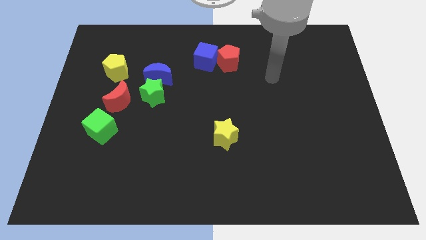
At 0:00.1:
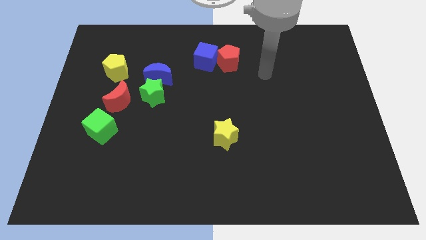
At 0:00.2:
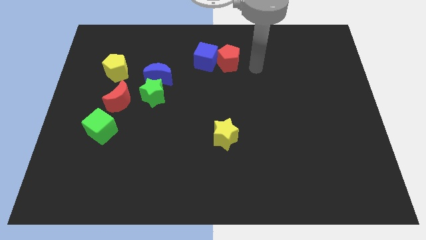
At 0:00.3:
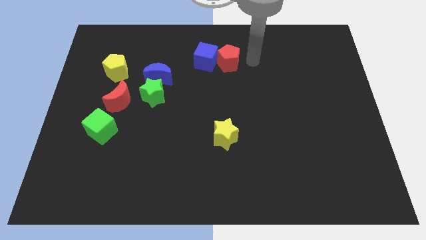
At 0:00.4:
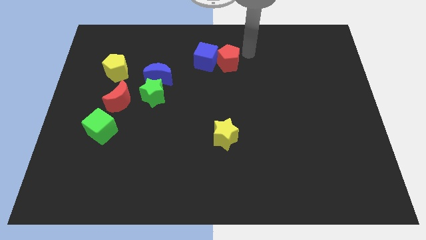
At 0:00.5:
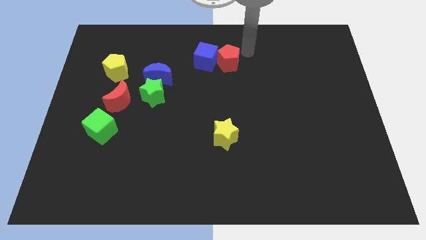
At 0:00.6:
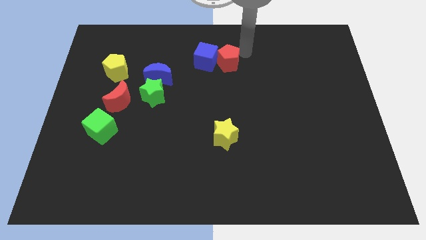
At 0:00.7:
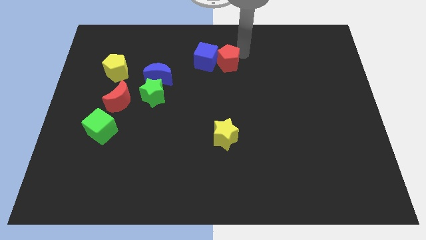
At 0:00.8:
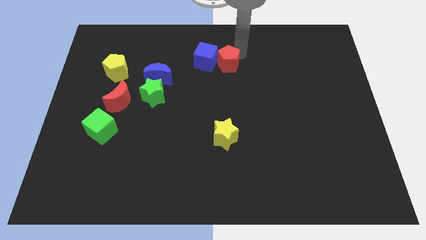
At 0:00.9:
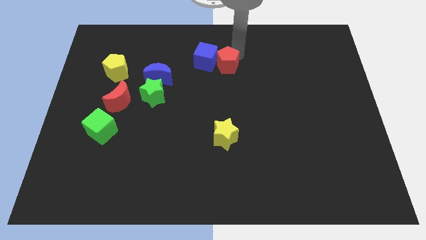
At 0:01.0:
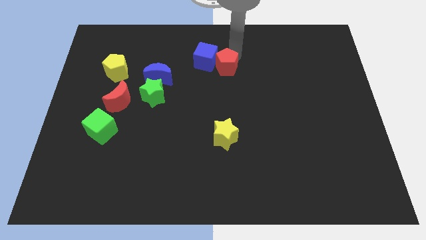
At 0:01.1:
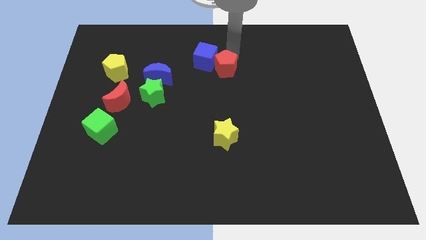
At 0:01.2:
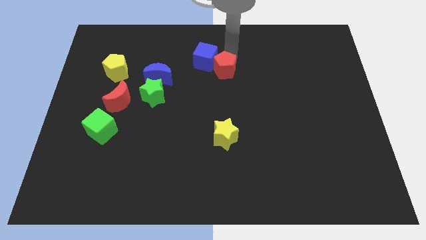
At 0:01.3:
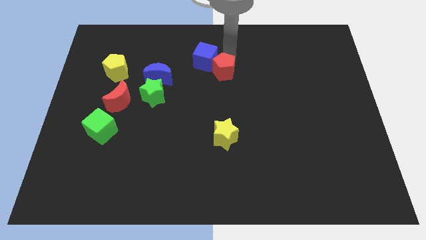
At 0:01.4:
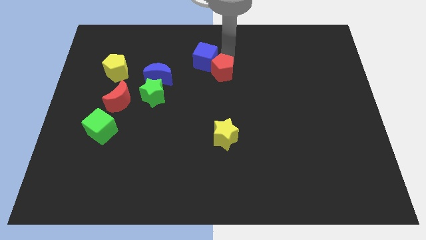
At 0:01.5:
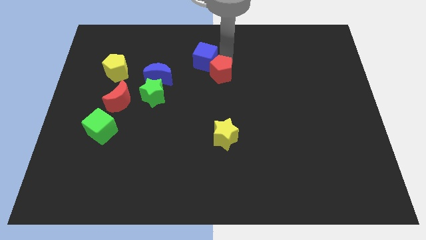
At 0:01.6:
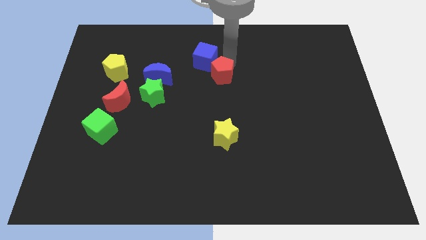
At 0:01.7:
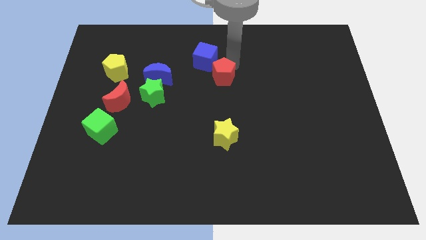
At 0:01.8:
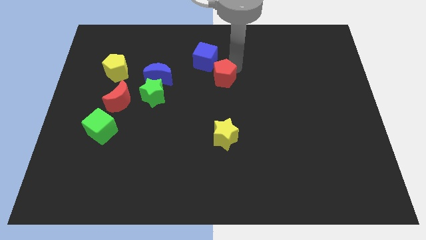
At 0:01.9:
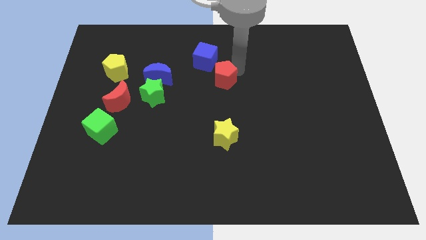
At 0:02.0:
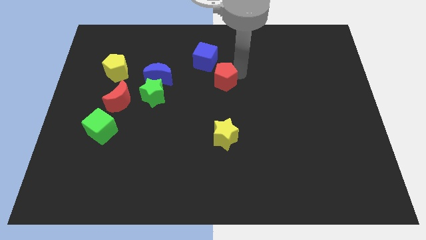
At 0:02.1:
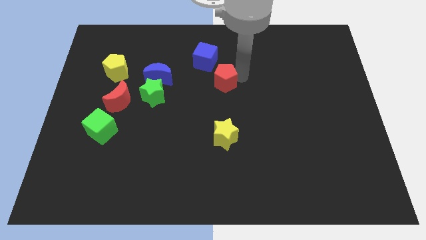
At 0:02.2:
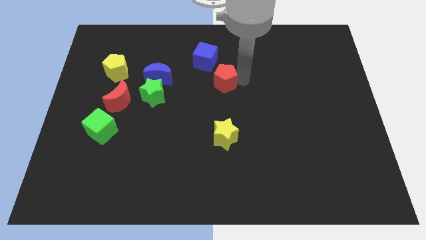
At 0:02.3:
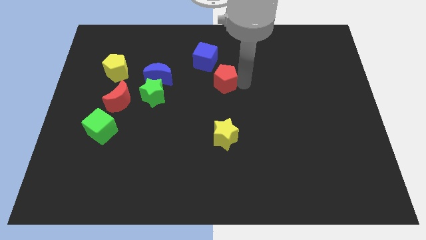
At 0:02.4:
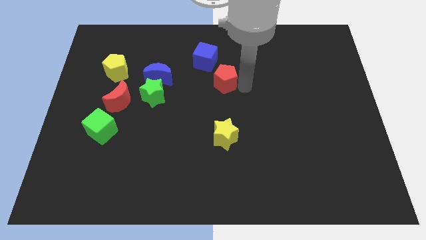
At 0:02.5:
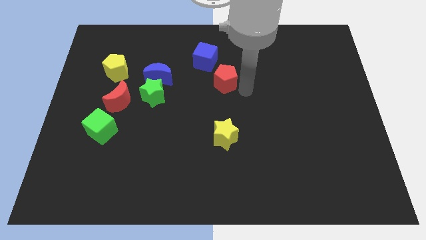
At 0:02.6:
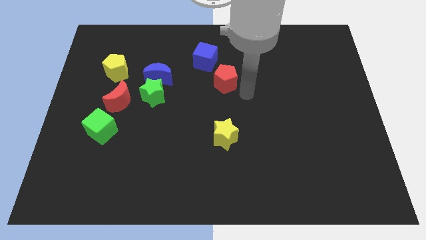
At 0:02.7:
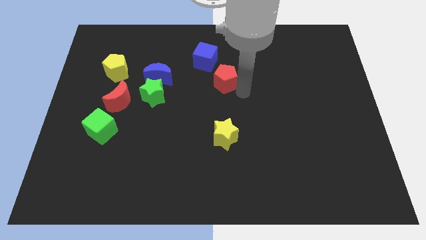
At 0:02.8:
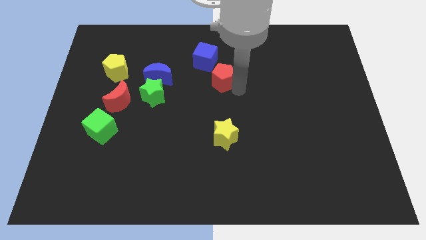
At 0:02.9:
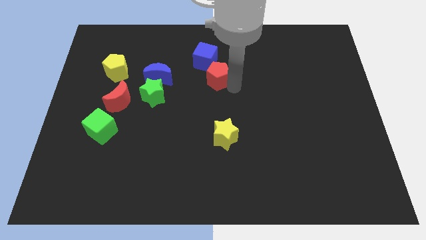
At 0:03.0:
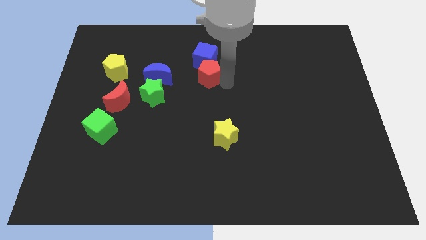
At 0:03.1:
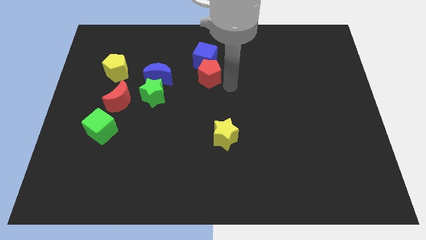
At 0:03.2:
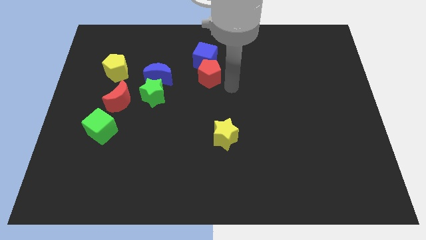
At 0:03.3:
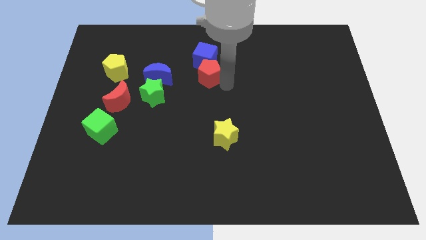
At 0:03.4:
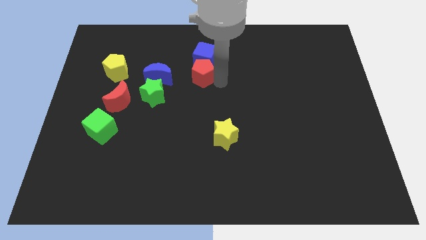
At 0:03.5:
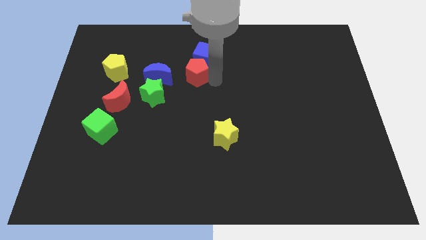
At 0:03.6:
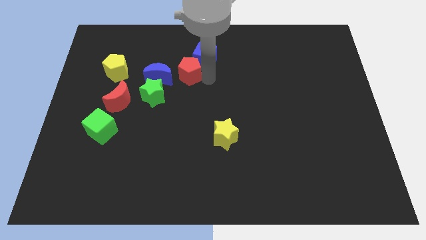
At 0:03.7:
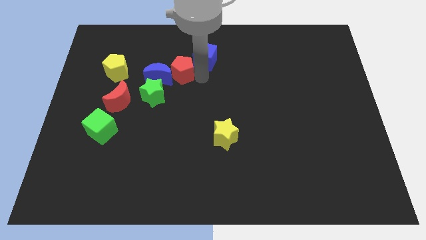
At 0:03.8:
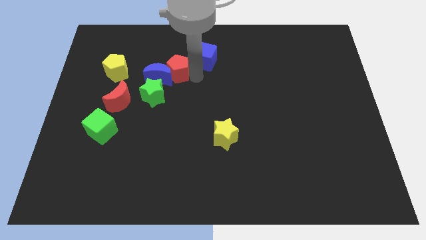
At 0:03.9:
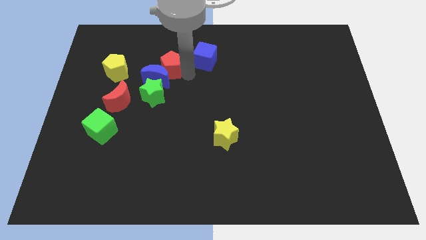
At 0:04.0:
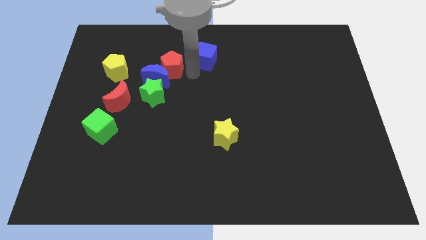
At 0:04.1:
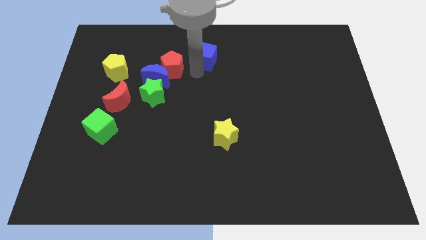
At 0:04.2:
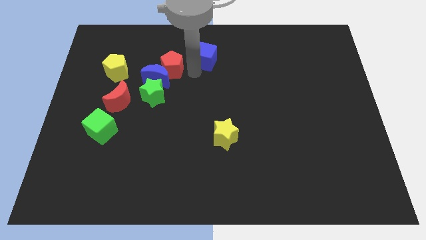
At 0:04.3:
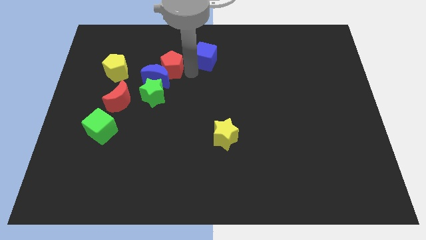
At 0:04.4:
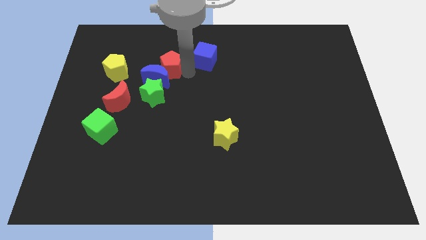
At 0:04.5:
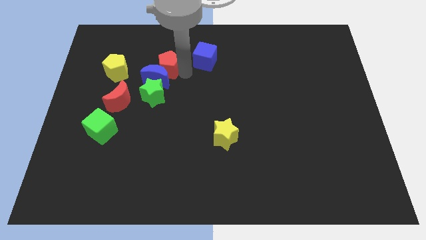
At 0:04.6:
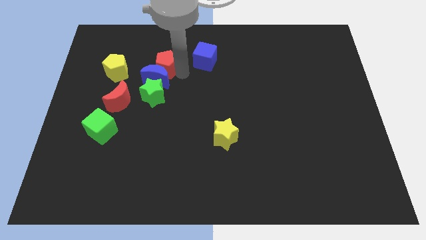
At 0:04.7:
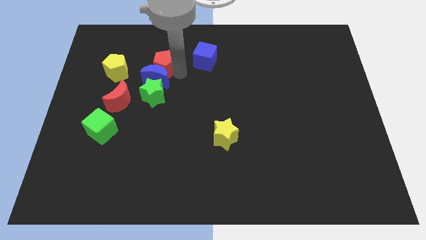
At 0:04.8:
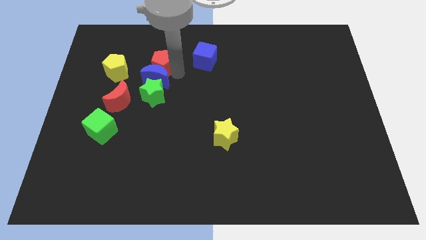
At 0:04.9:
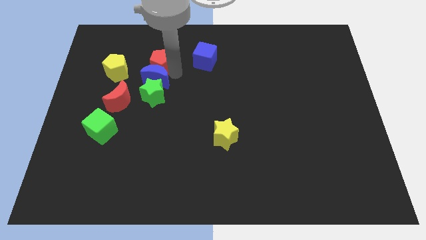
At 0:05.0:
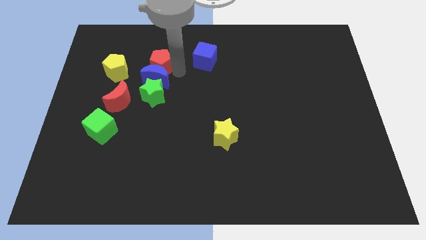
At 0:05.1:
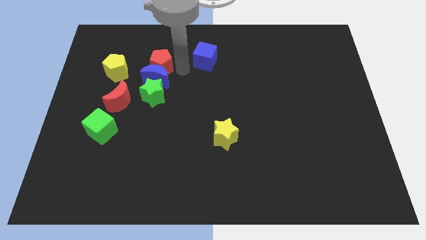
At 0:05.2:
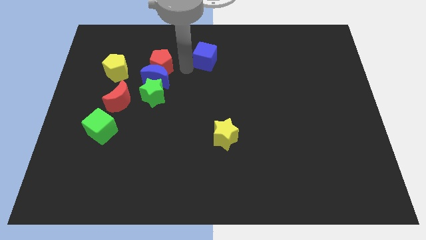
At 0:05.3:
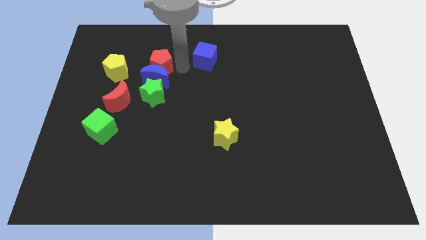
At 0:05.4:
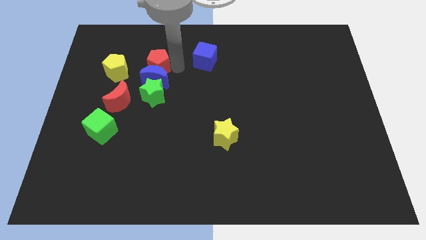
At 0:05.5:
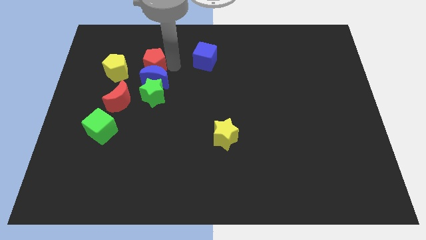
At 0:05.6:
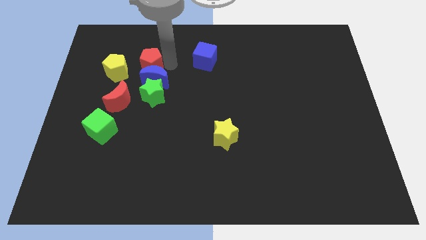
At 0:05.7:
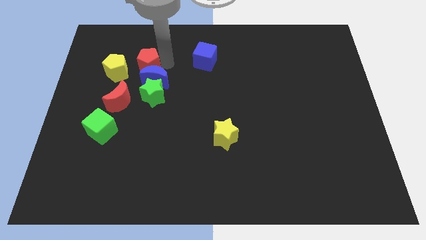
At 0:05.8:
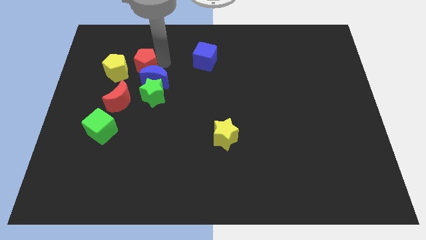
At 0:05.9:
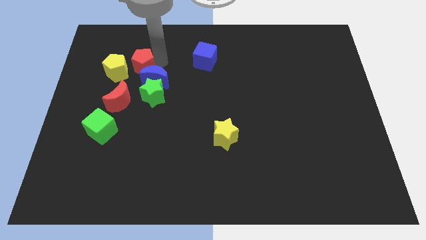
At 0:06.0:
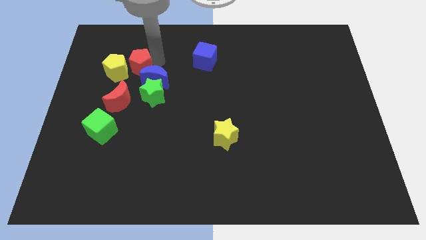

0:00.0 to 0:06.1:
slide the red pentagon close to the yellow pentagon
